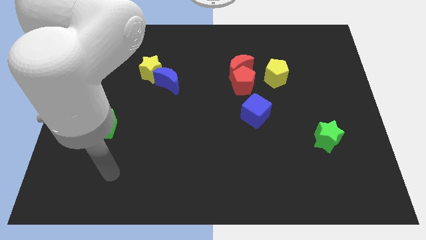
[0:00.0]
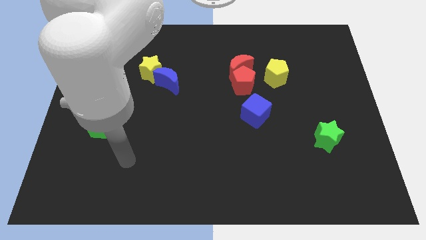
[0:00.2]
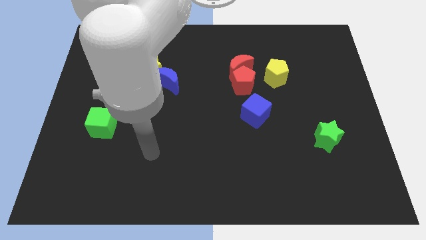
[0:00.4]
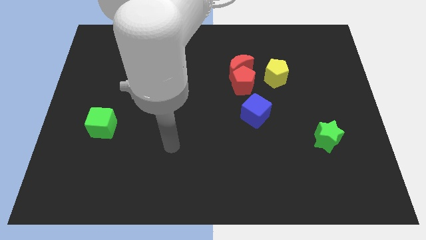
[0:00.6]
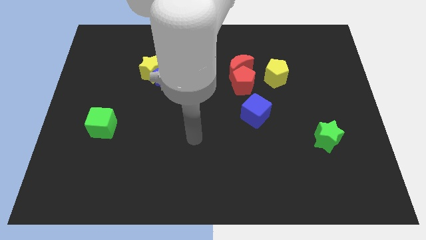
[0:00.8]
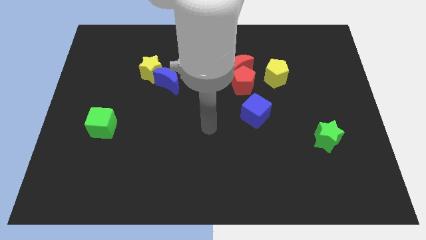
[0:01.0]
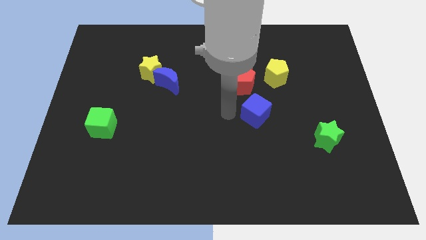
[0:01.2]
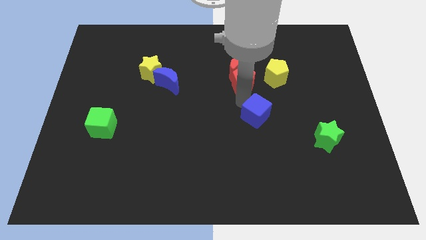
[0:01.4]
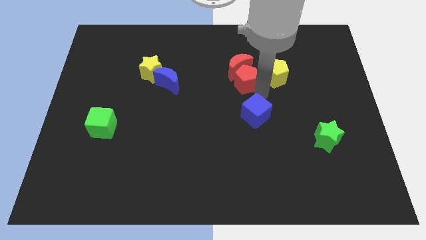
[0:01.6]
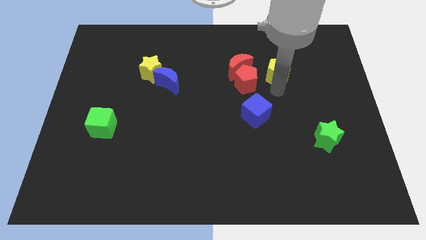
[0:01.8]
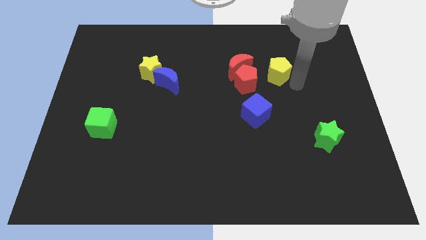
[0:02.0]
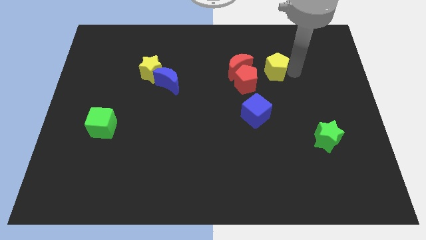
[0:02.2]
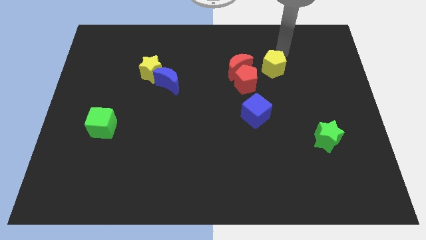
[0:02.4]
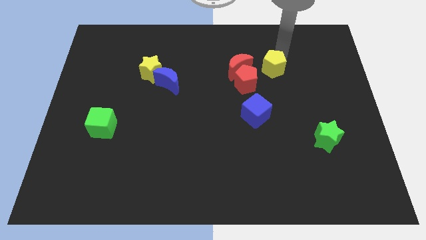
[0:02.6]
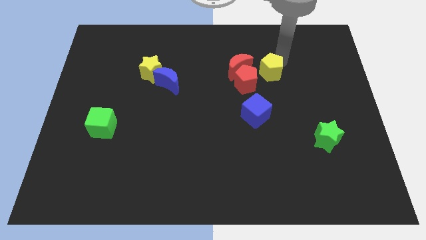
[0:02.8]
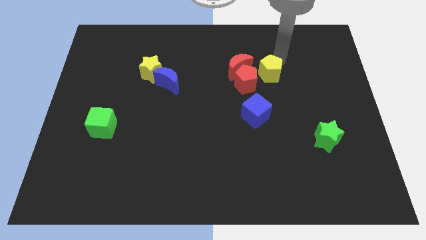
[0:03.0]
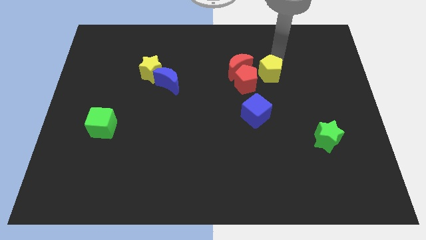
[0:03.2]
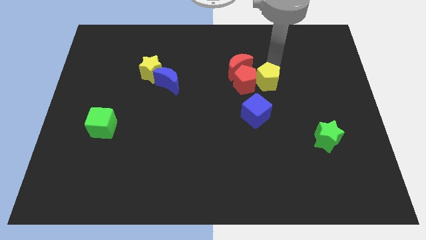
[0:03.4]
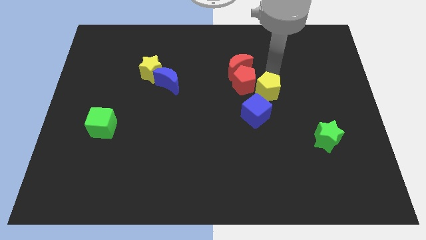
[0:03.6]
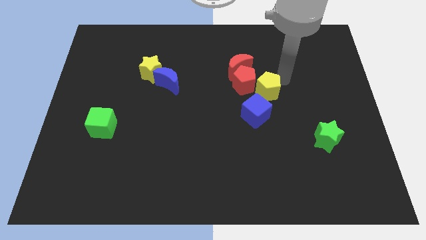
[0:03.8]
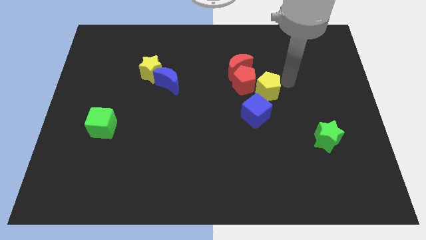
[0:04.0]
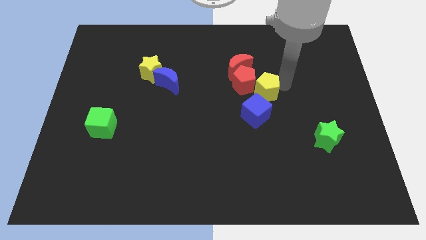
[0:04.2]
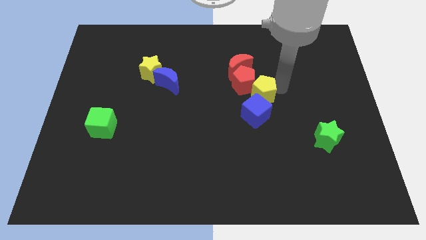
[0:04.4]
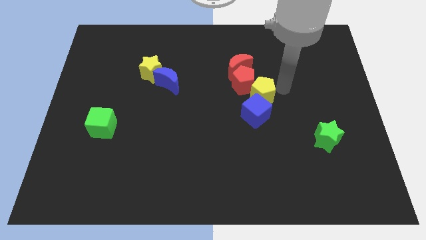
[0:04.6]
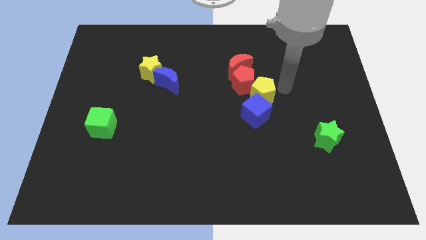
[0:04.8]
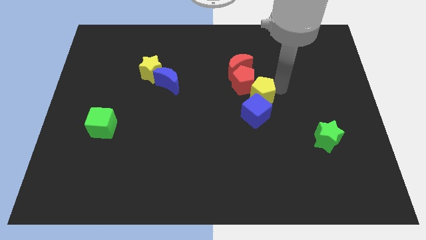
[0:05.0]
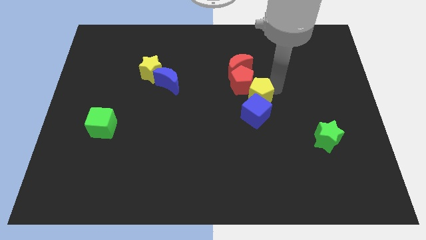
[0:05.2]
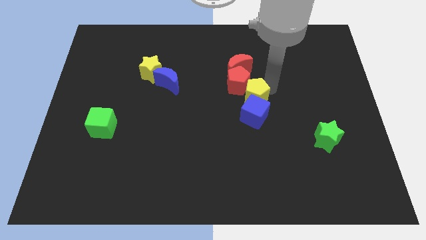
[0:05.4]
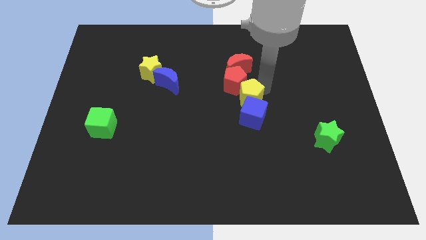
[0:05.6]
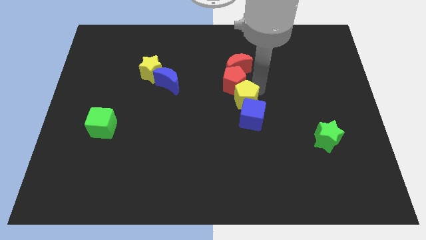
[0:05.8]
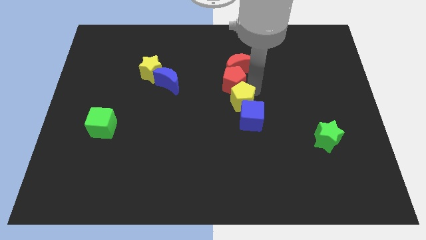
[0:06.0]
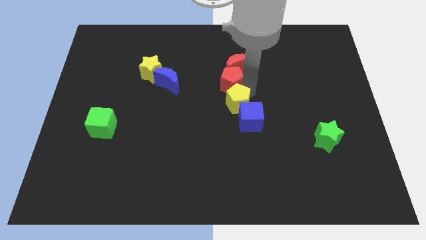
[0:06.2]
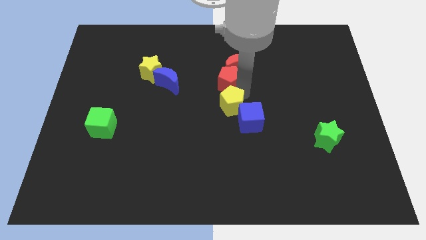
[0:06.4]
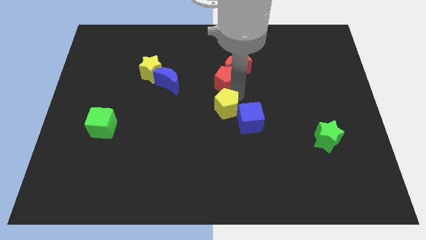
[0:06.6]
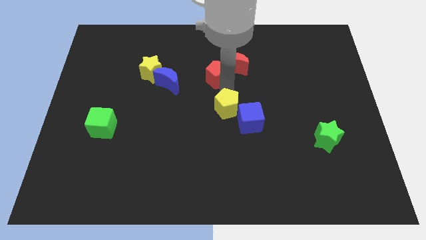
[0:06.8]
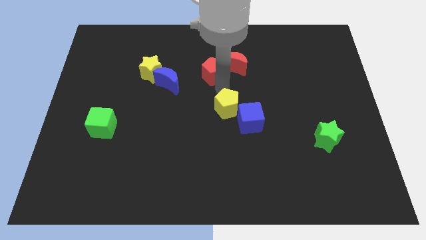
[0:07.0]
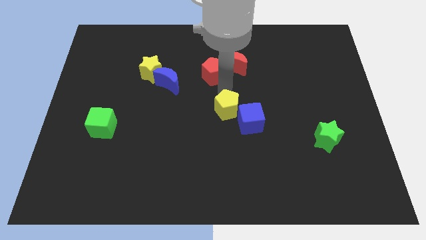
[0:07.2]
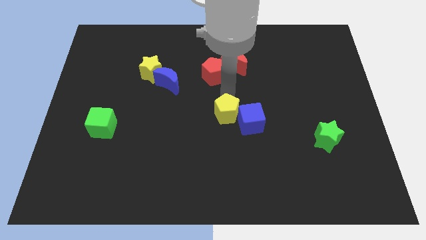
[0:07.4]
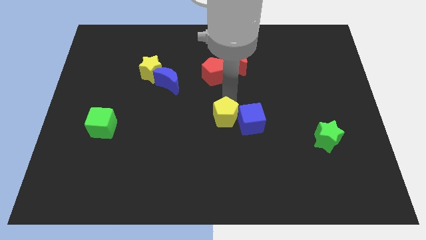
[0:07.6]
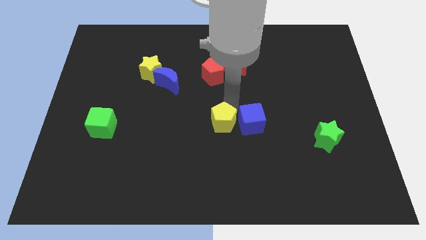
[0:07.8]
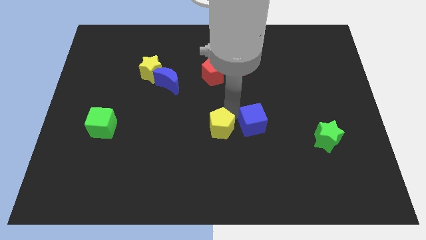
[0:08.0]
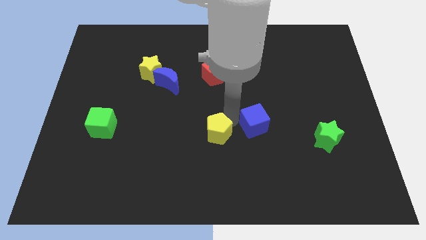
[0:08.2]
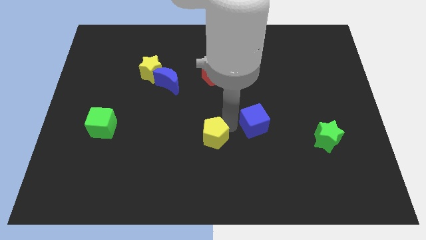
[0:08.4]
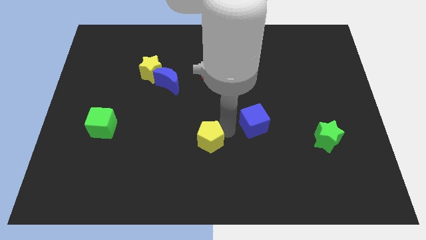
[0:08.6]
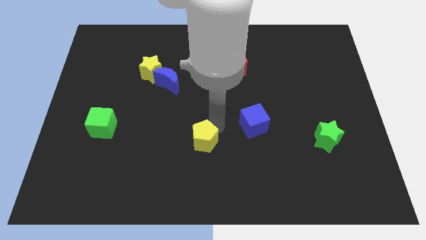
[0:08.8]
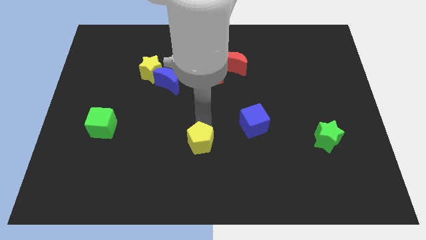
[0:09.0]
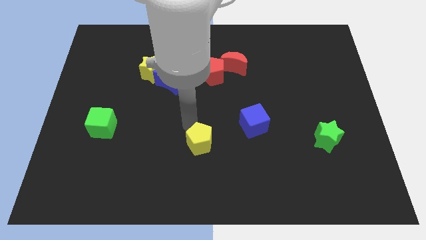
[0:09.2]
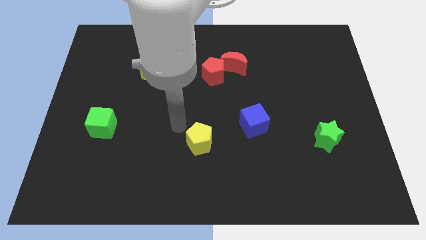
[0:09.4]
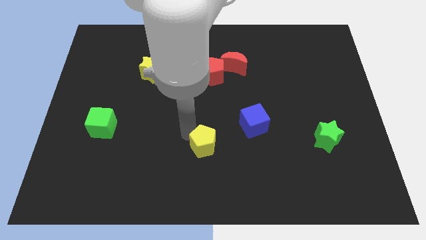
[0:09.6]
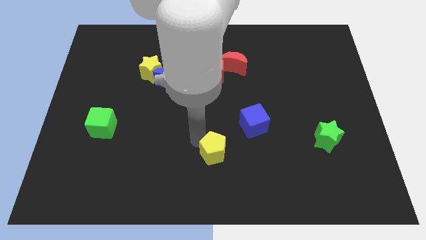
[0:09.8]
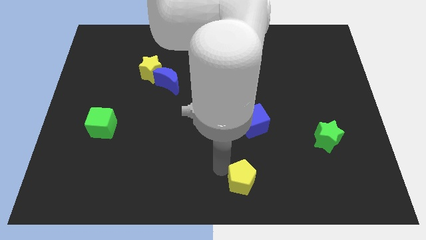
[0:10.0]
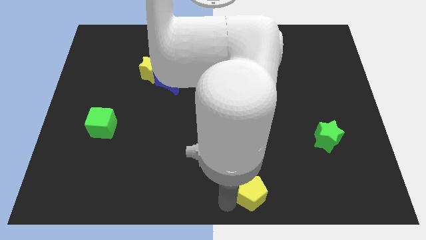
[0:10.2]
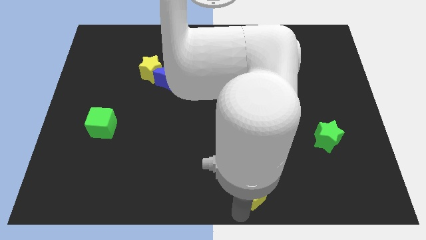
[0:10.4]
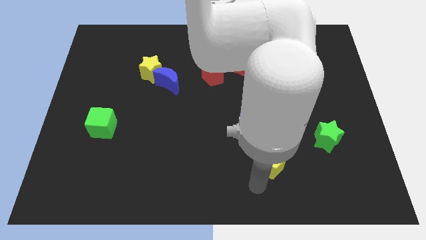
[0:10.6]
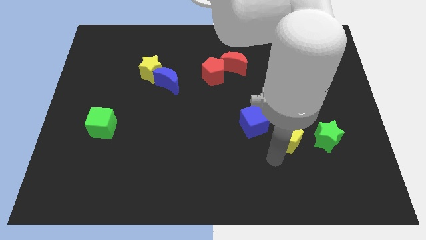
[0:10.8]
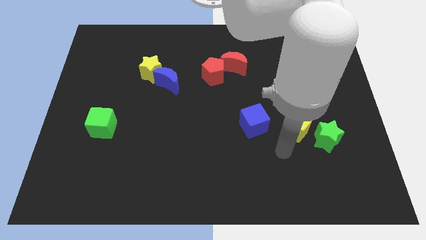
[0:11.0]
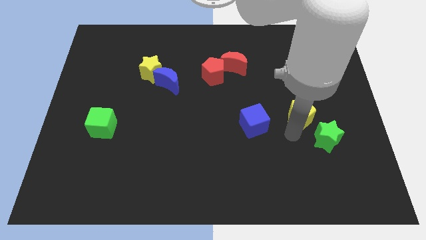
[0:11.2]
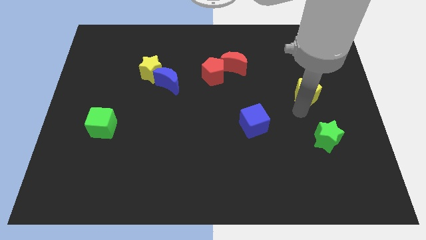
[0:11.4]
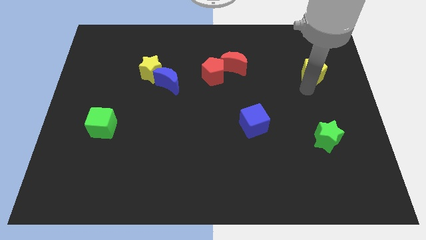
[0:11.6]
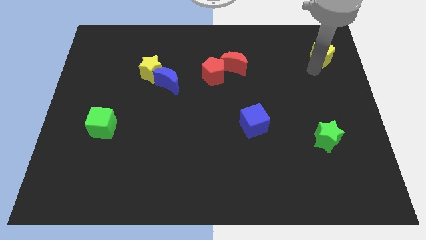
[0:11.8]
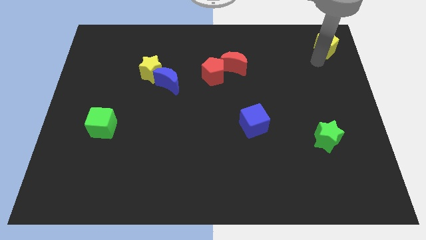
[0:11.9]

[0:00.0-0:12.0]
put the yellow pentagon to the top right
